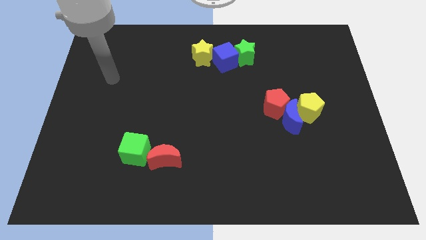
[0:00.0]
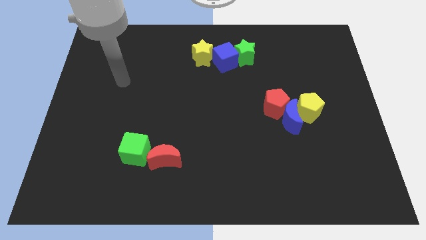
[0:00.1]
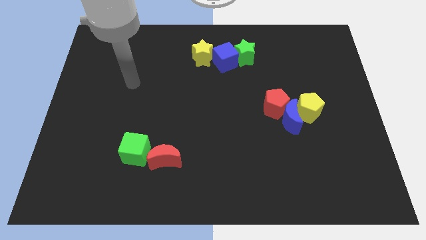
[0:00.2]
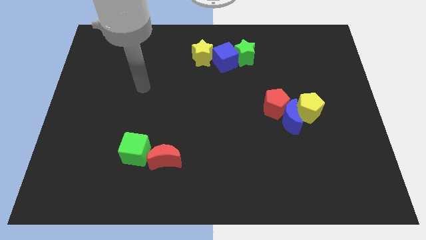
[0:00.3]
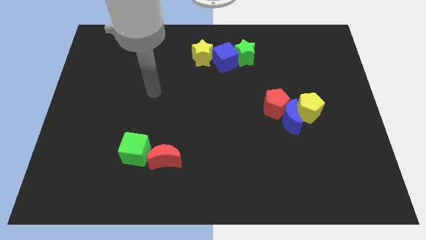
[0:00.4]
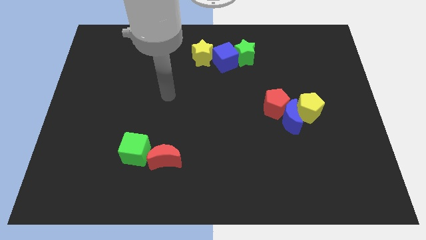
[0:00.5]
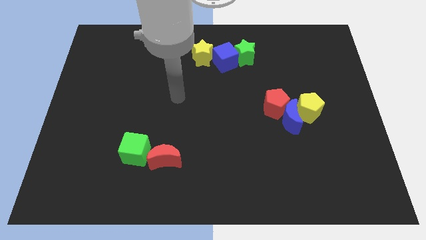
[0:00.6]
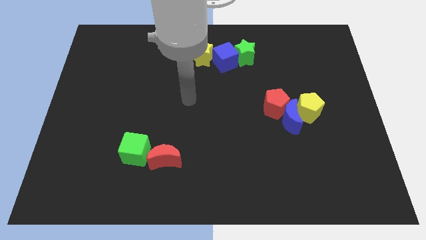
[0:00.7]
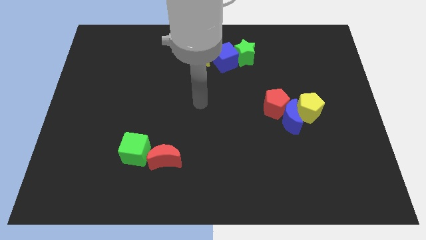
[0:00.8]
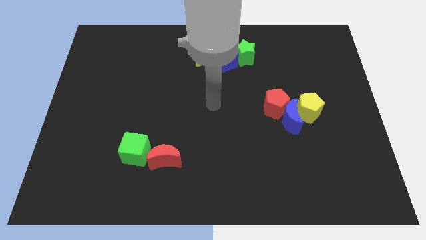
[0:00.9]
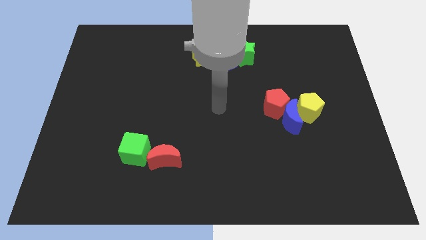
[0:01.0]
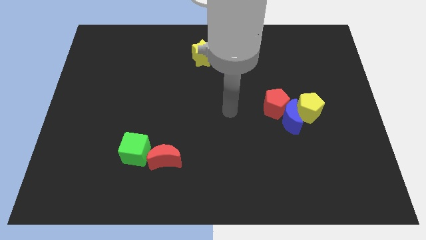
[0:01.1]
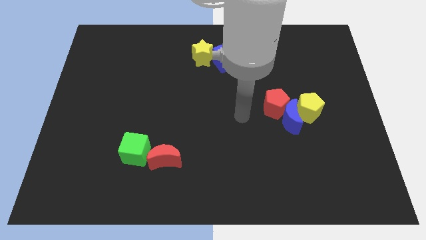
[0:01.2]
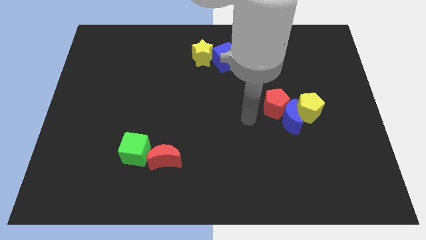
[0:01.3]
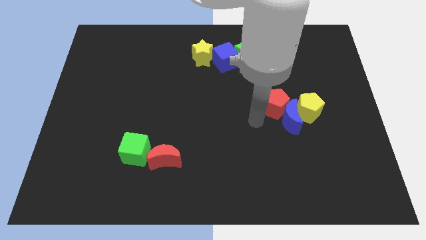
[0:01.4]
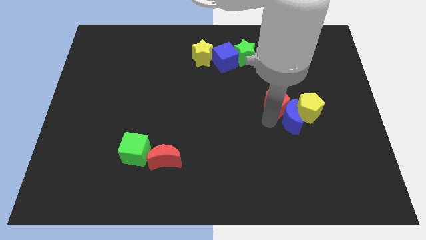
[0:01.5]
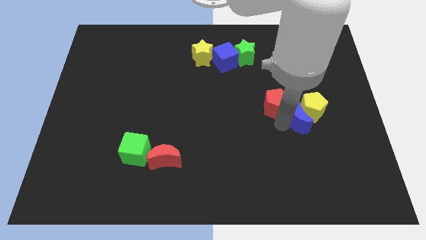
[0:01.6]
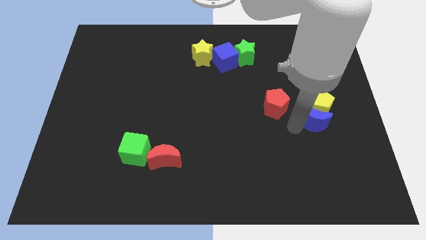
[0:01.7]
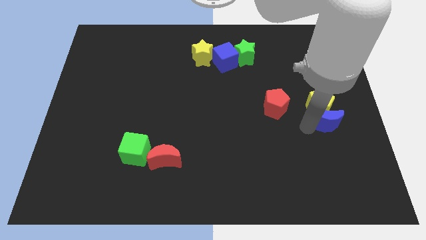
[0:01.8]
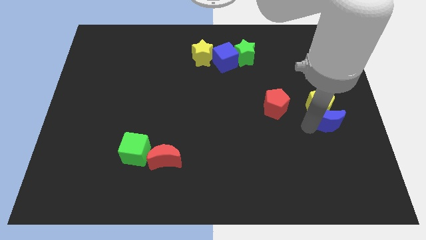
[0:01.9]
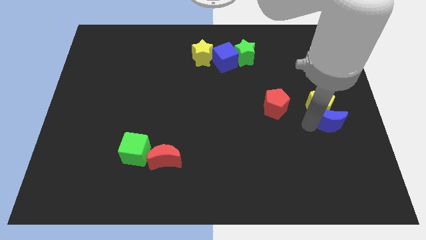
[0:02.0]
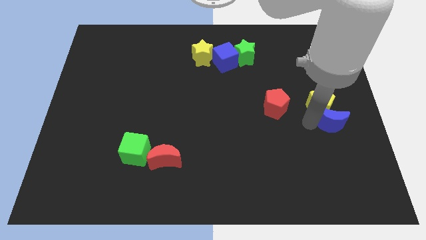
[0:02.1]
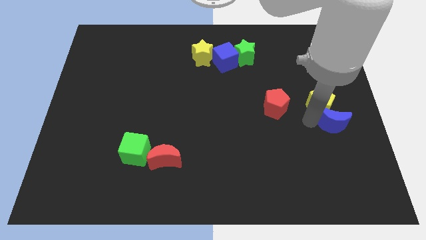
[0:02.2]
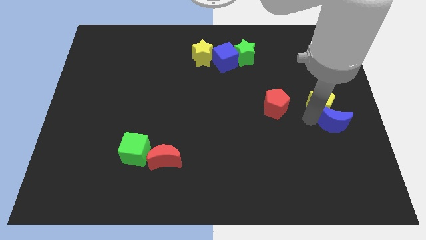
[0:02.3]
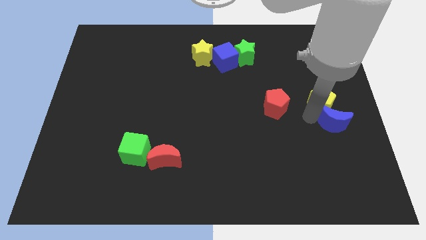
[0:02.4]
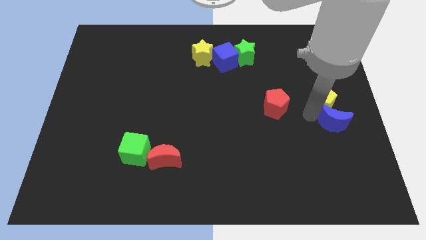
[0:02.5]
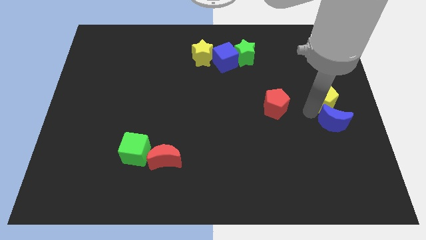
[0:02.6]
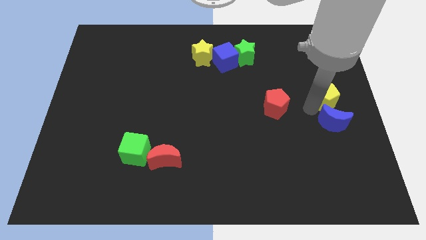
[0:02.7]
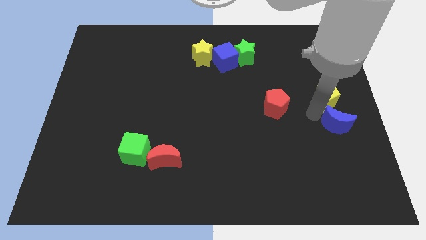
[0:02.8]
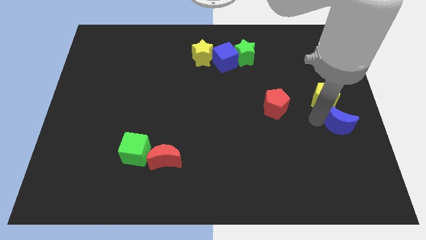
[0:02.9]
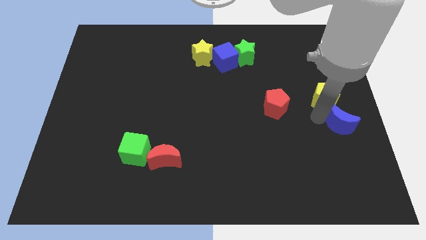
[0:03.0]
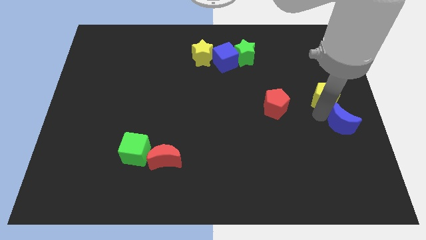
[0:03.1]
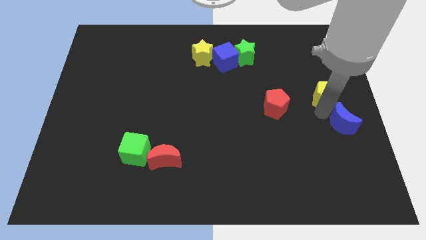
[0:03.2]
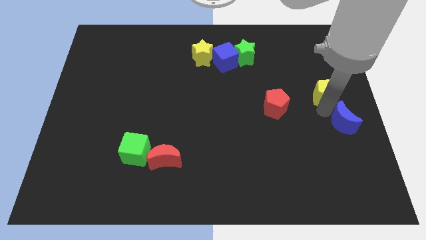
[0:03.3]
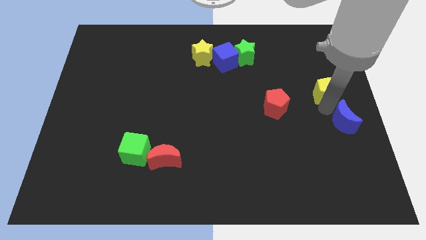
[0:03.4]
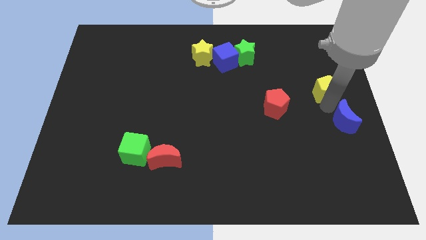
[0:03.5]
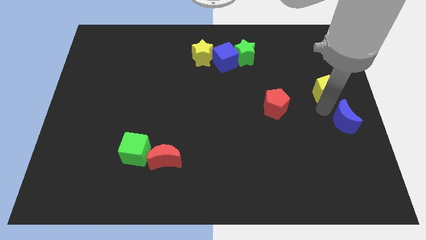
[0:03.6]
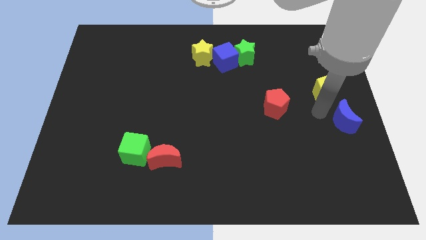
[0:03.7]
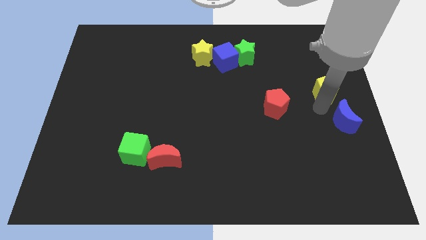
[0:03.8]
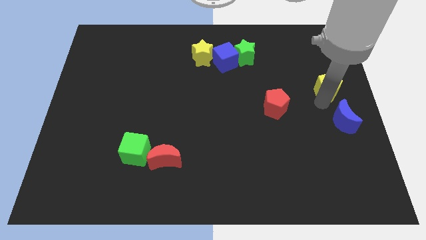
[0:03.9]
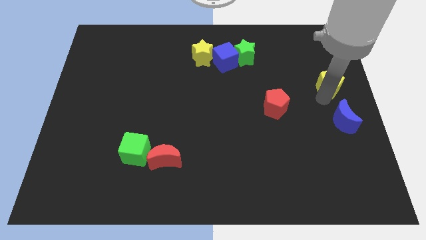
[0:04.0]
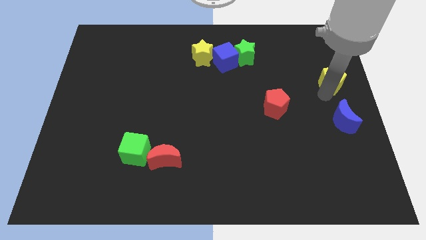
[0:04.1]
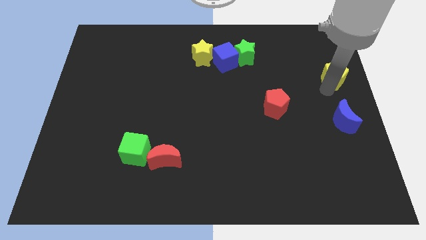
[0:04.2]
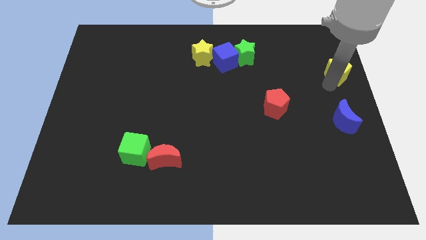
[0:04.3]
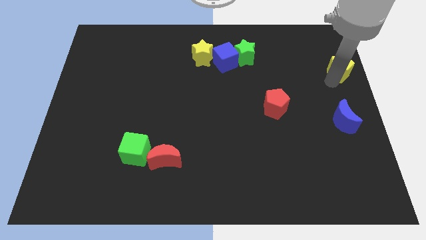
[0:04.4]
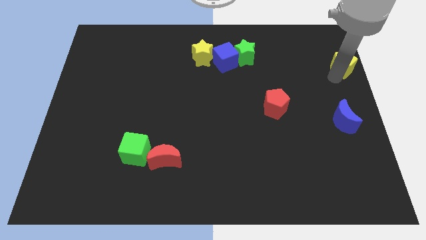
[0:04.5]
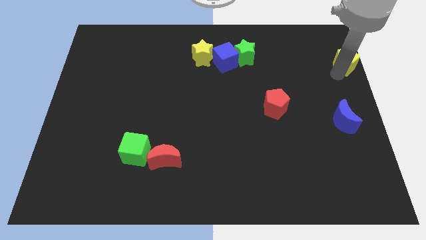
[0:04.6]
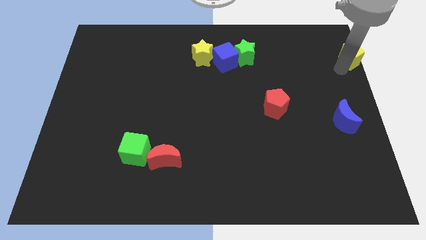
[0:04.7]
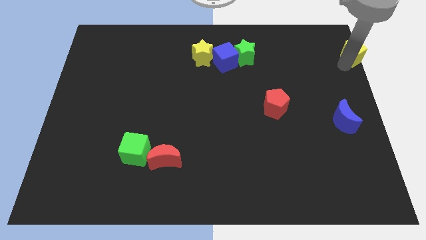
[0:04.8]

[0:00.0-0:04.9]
slide the yellow pentagon to the top right corner

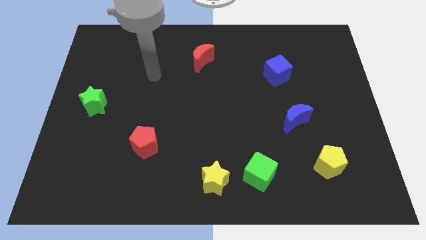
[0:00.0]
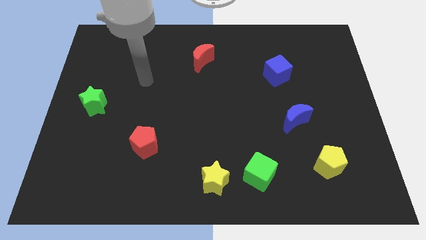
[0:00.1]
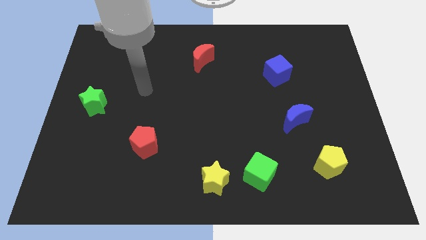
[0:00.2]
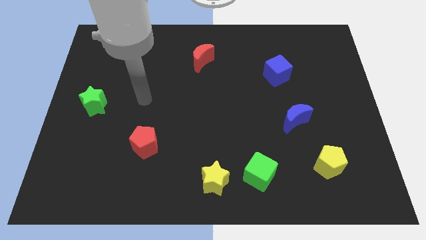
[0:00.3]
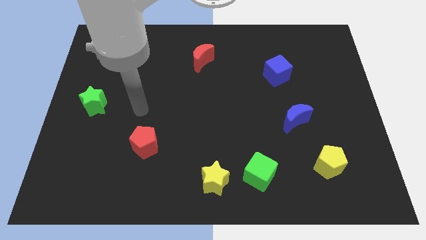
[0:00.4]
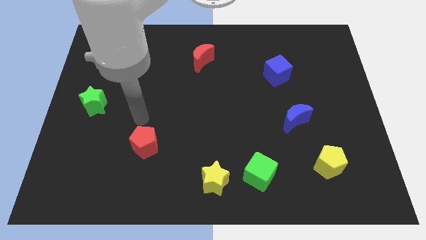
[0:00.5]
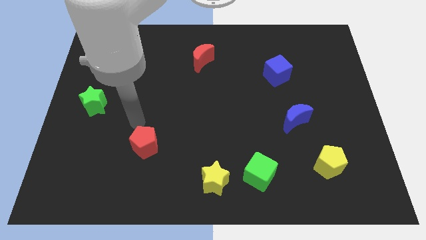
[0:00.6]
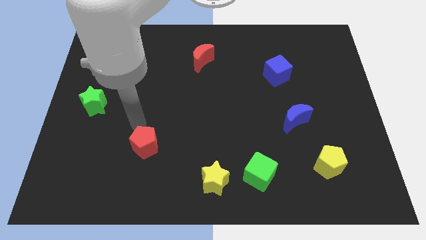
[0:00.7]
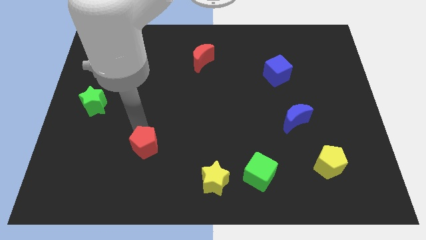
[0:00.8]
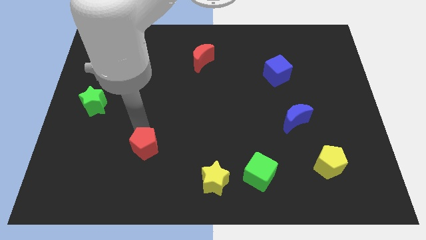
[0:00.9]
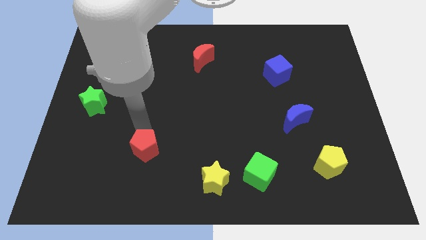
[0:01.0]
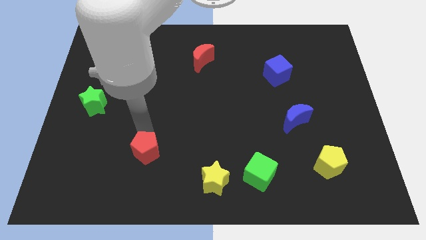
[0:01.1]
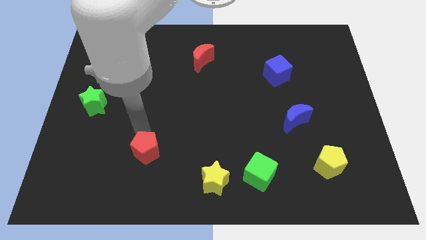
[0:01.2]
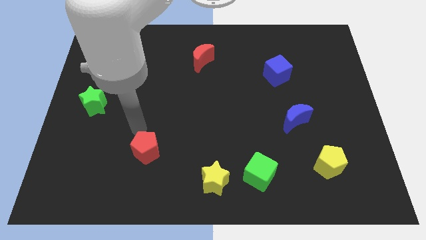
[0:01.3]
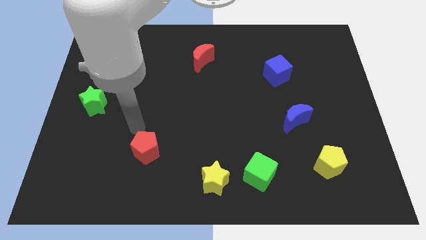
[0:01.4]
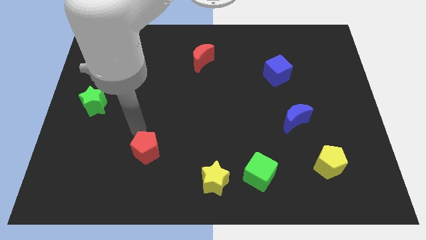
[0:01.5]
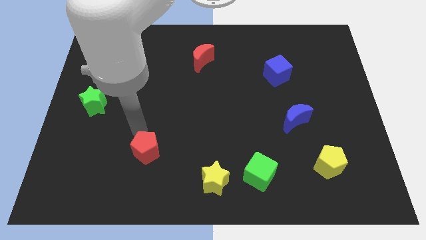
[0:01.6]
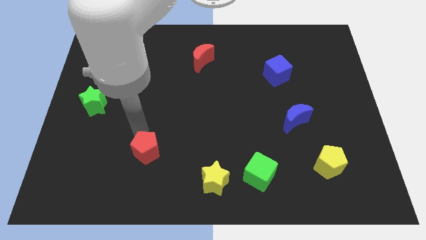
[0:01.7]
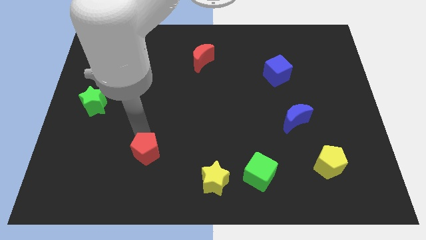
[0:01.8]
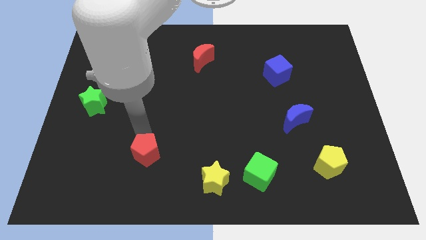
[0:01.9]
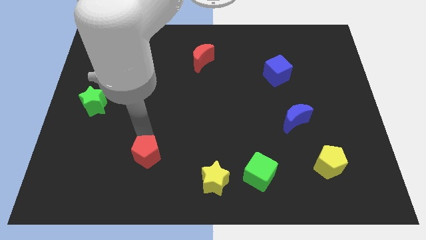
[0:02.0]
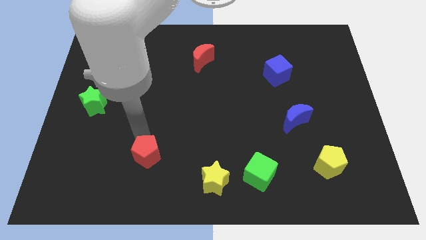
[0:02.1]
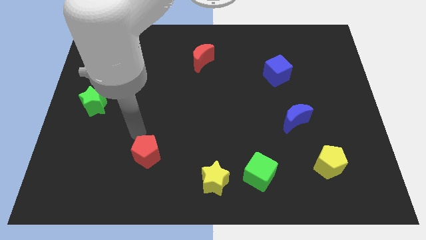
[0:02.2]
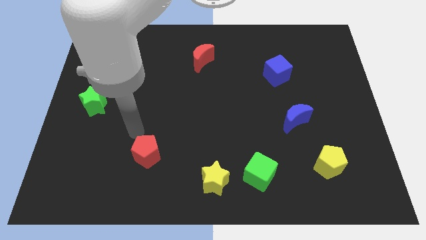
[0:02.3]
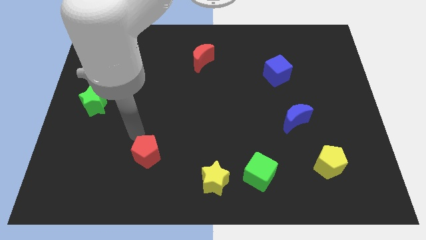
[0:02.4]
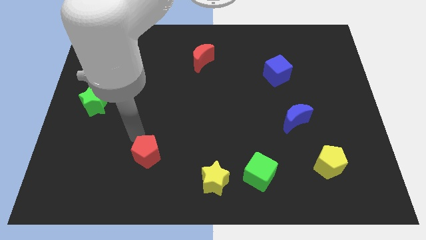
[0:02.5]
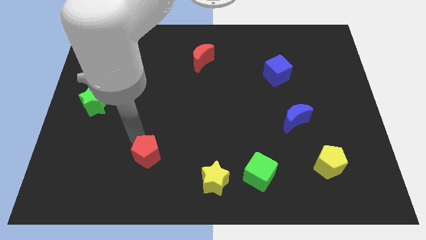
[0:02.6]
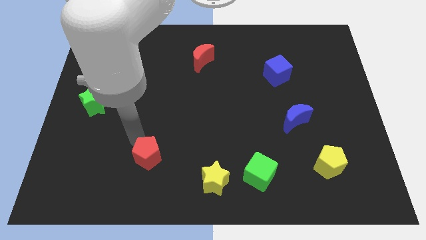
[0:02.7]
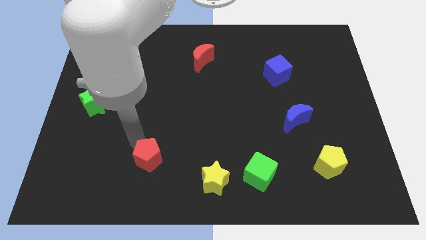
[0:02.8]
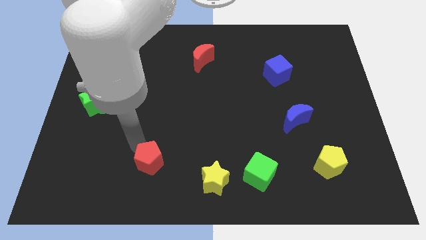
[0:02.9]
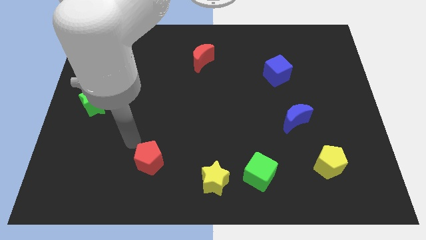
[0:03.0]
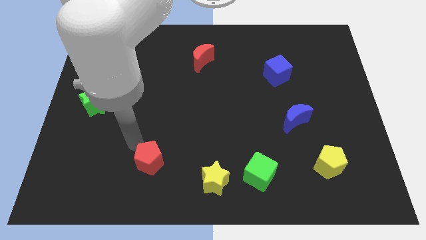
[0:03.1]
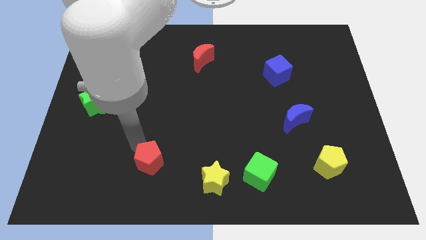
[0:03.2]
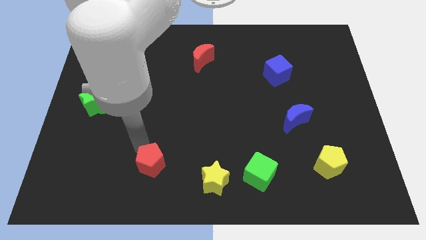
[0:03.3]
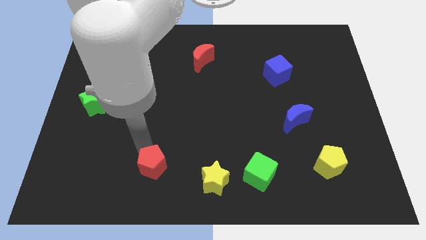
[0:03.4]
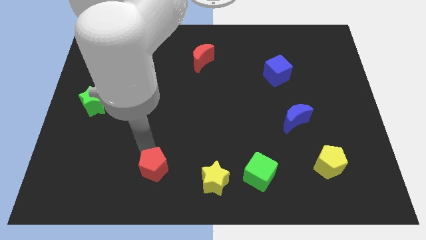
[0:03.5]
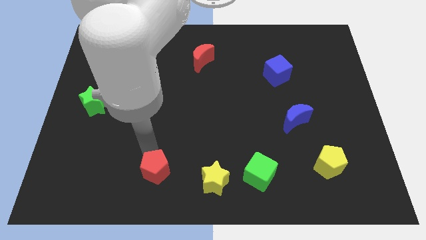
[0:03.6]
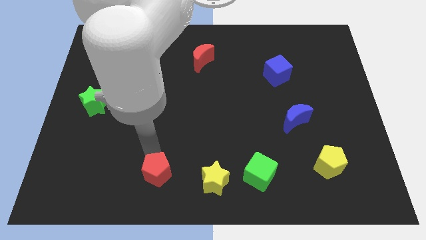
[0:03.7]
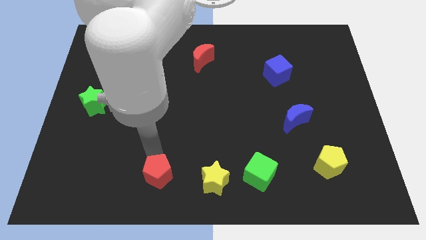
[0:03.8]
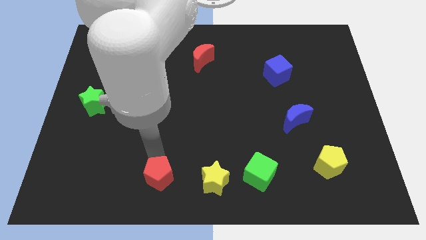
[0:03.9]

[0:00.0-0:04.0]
put the red pentagon to the bottom
